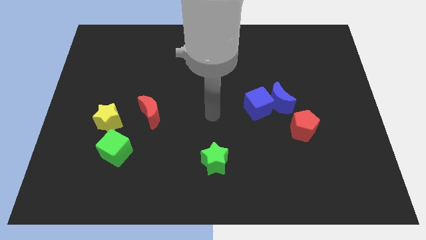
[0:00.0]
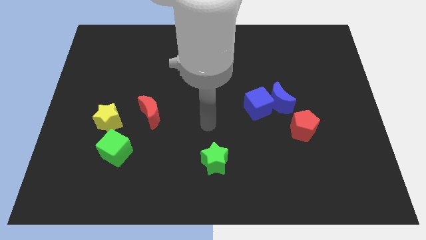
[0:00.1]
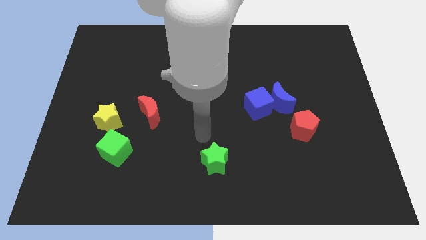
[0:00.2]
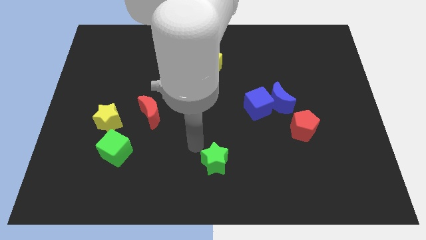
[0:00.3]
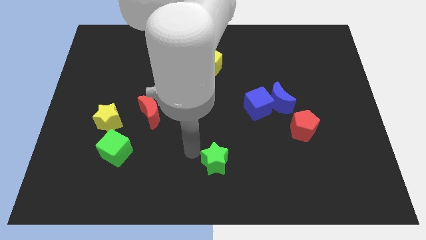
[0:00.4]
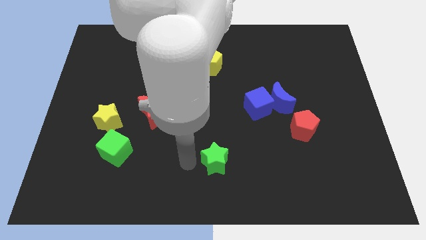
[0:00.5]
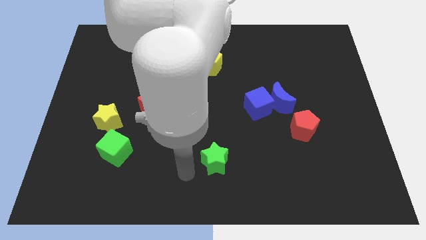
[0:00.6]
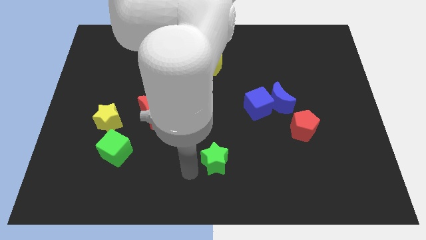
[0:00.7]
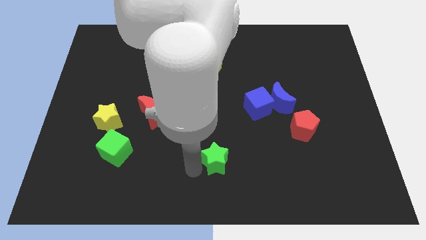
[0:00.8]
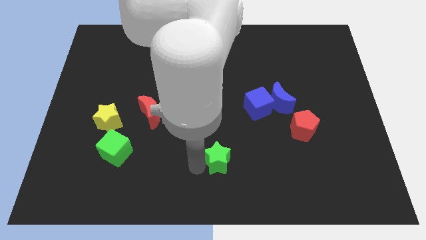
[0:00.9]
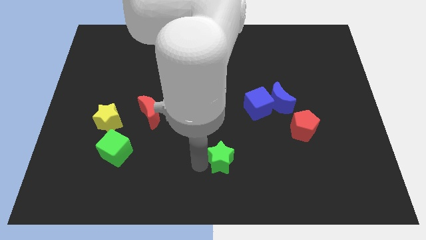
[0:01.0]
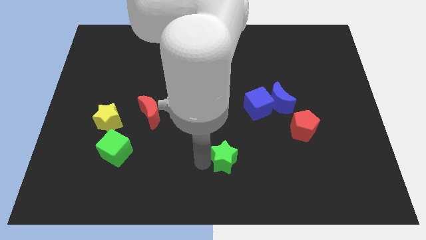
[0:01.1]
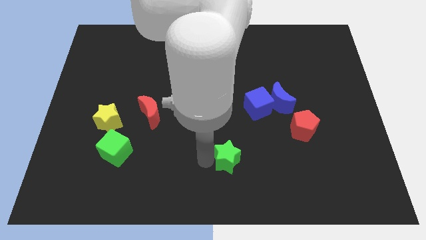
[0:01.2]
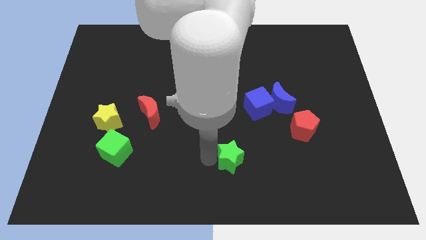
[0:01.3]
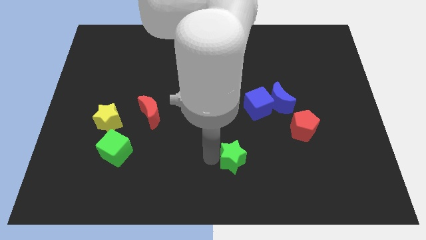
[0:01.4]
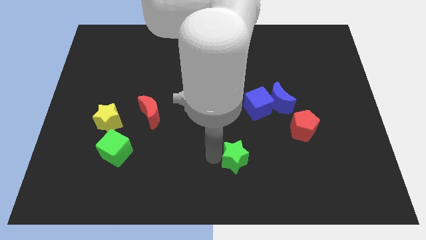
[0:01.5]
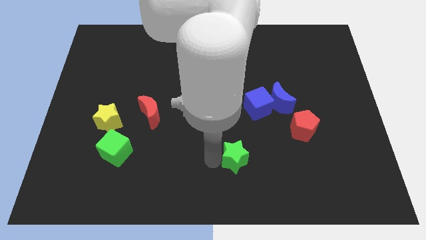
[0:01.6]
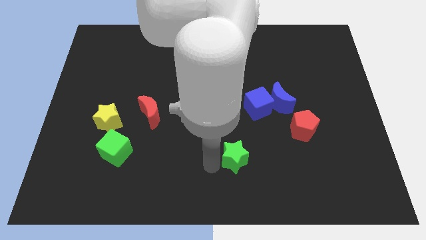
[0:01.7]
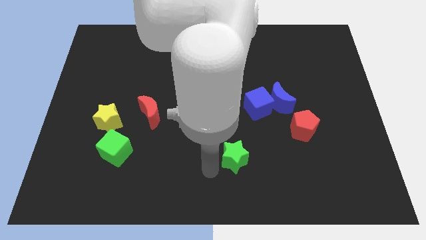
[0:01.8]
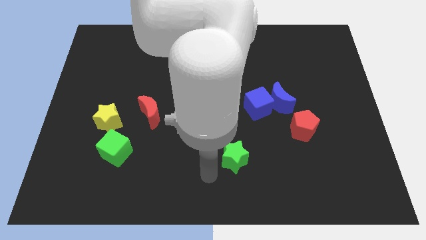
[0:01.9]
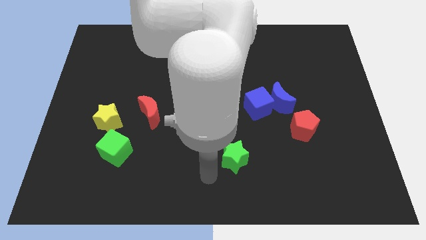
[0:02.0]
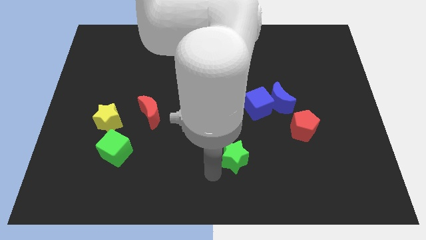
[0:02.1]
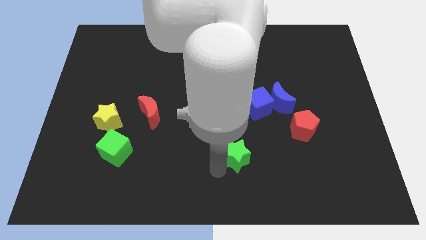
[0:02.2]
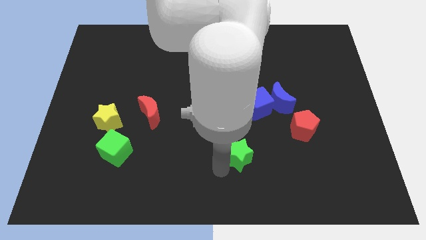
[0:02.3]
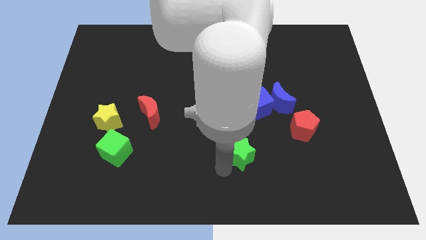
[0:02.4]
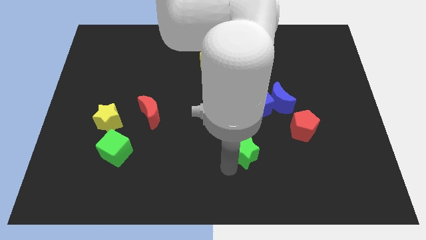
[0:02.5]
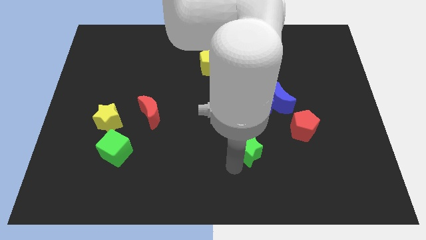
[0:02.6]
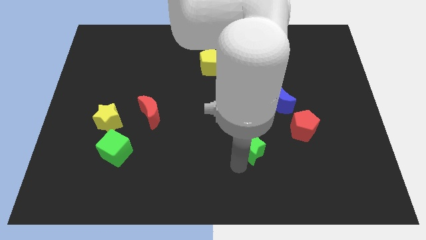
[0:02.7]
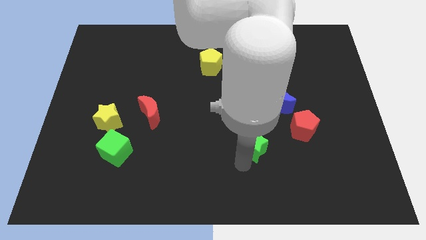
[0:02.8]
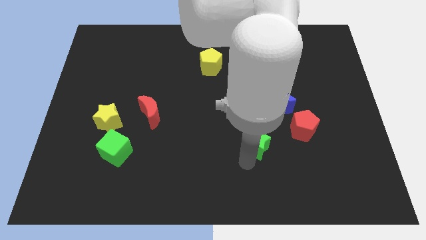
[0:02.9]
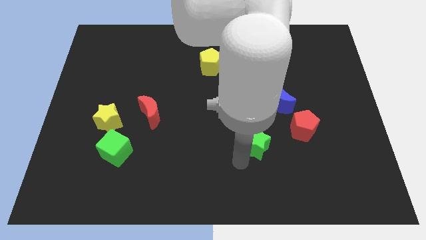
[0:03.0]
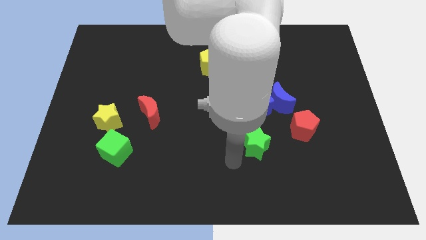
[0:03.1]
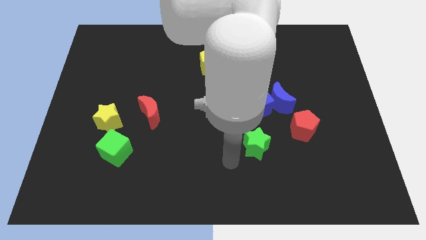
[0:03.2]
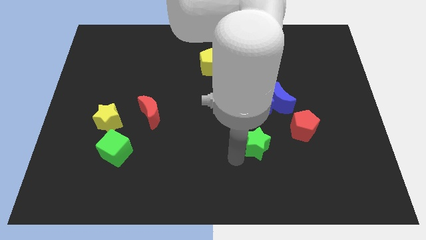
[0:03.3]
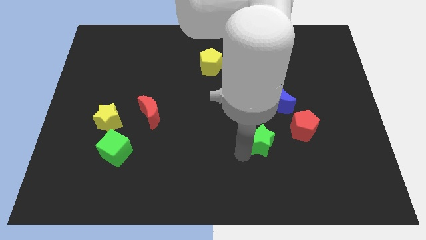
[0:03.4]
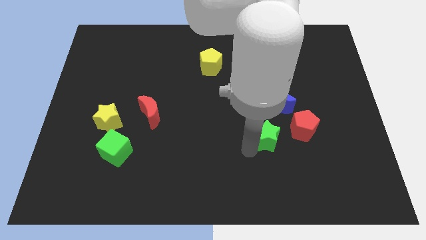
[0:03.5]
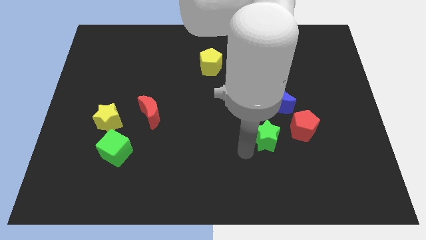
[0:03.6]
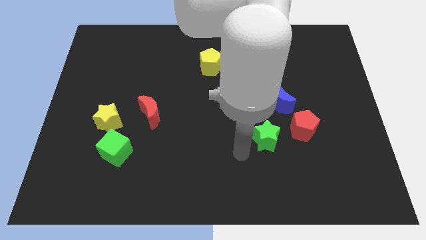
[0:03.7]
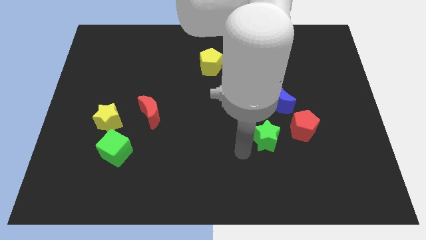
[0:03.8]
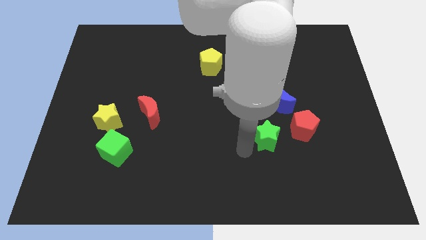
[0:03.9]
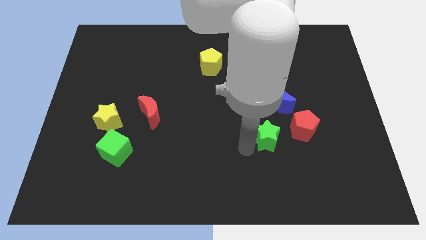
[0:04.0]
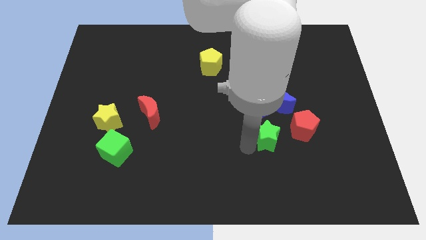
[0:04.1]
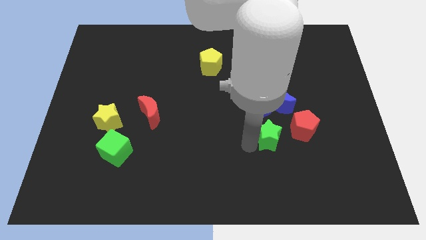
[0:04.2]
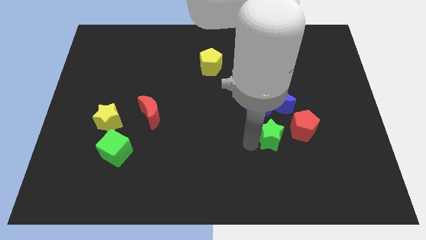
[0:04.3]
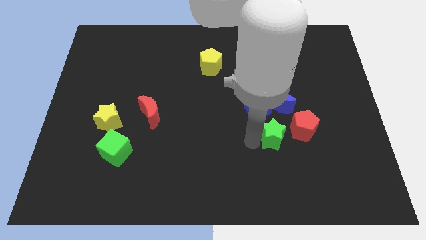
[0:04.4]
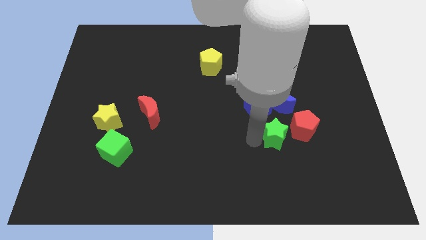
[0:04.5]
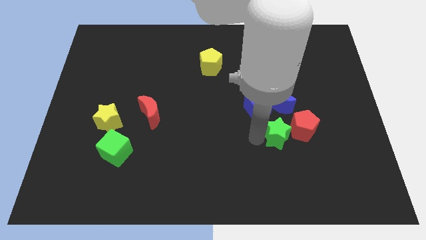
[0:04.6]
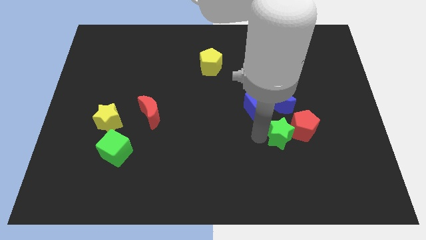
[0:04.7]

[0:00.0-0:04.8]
put the green star next to the red pentagon

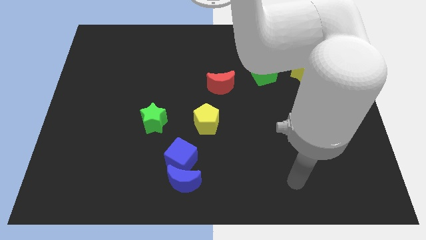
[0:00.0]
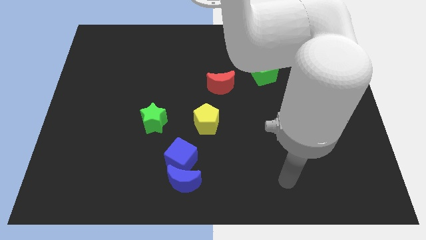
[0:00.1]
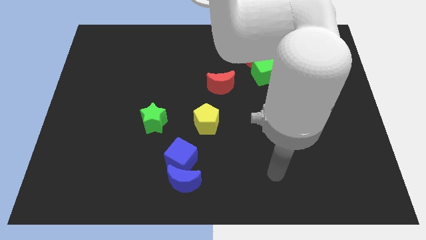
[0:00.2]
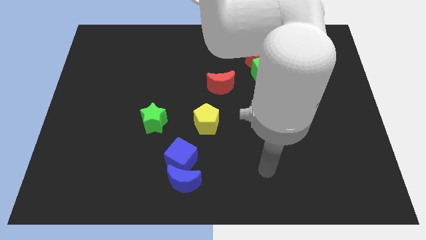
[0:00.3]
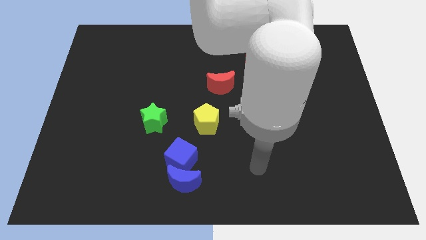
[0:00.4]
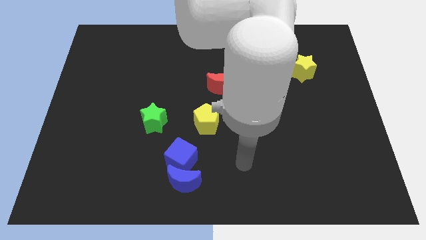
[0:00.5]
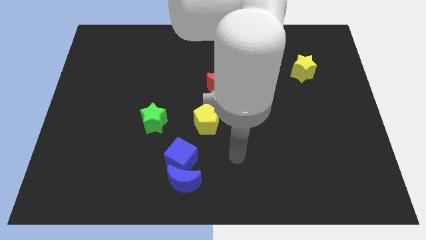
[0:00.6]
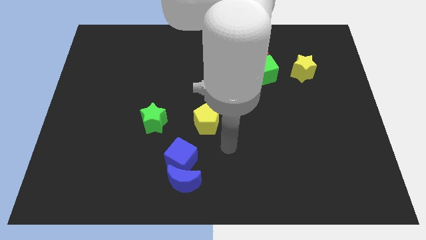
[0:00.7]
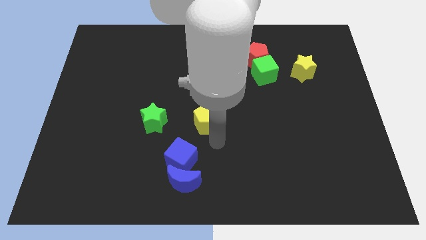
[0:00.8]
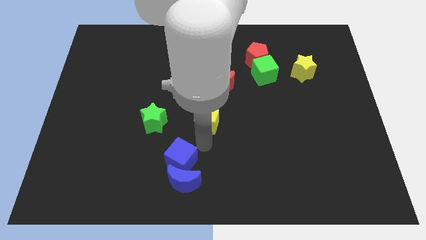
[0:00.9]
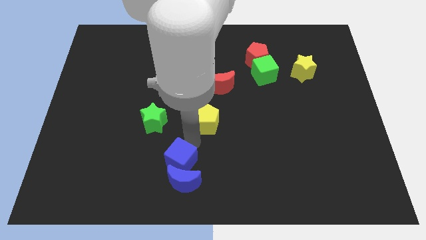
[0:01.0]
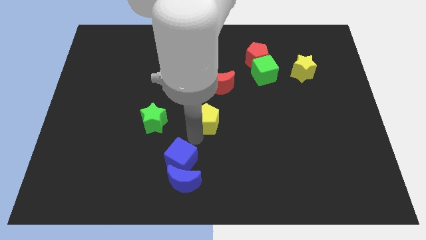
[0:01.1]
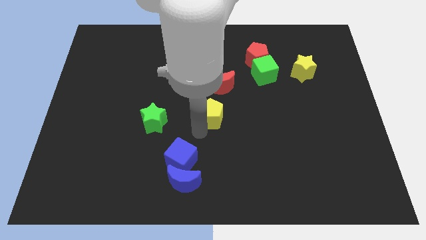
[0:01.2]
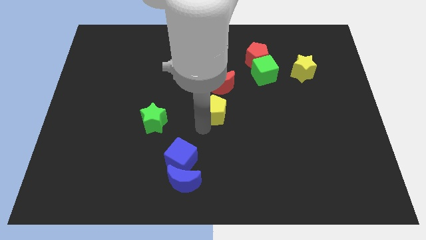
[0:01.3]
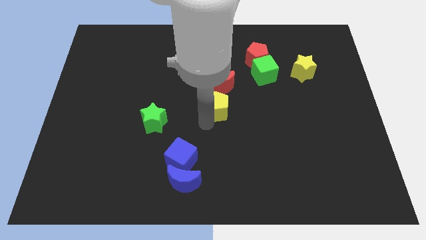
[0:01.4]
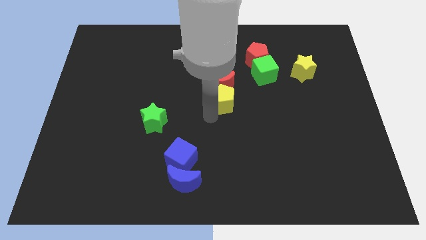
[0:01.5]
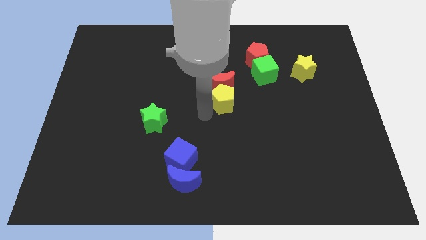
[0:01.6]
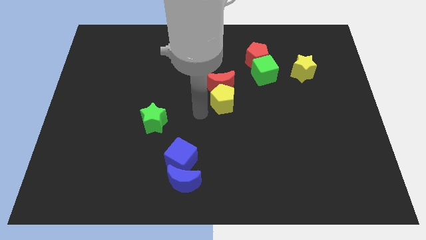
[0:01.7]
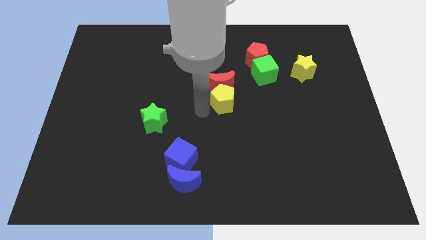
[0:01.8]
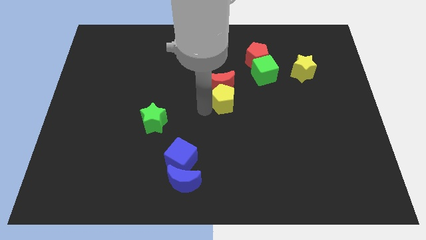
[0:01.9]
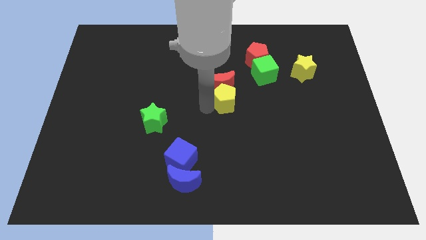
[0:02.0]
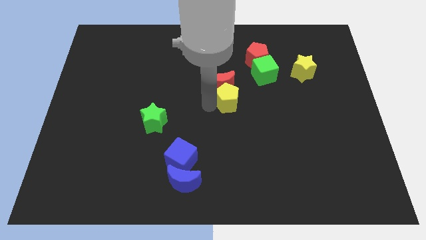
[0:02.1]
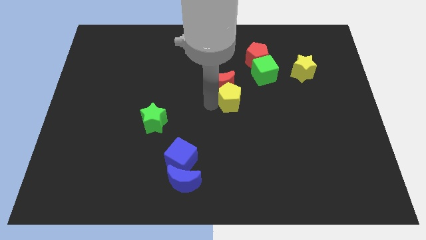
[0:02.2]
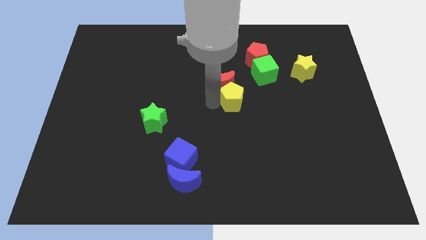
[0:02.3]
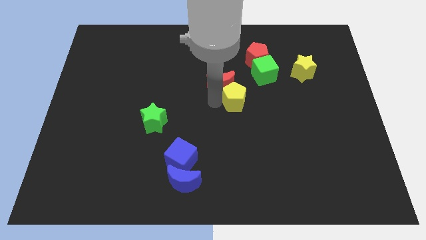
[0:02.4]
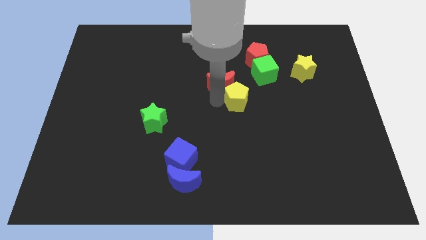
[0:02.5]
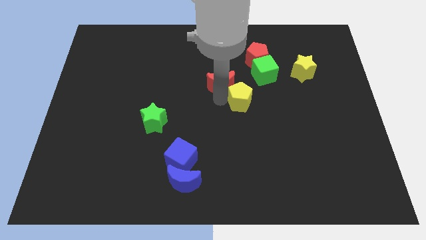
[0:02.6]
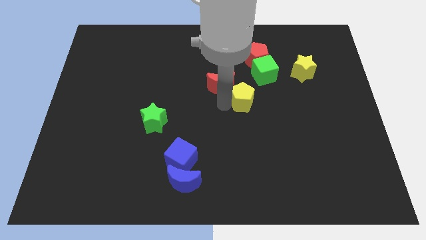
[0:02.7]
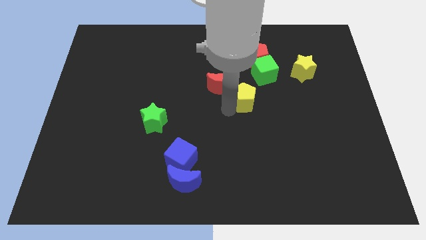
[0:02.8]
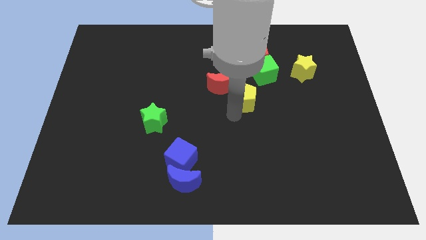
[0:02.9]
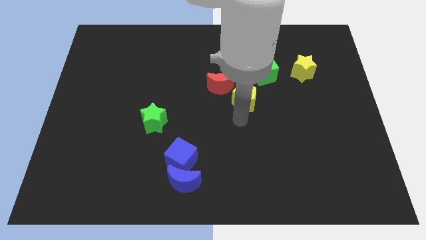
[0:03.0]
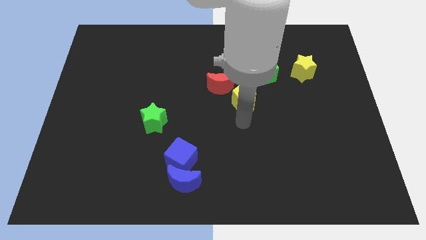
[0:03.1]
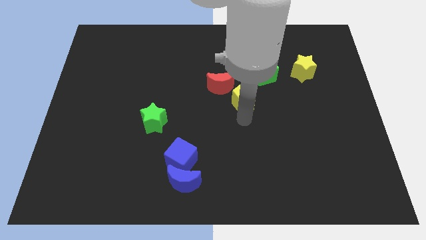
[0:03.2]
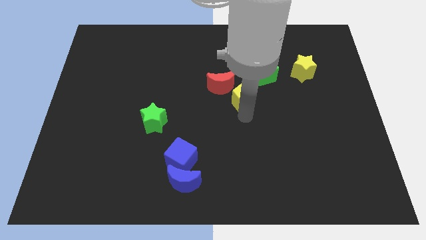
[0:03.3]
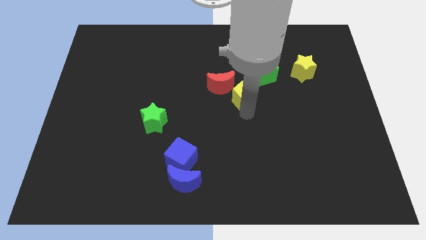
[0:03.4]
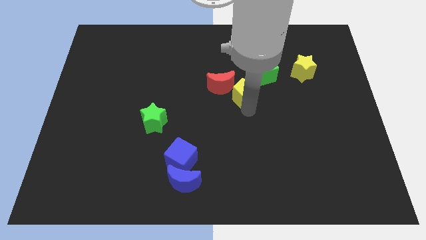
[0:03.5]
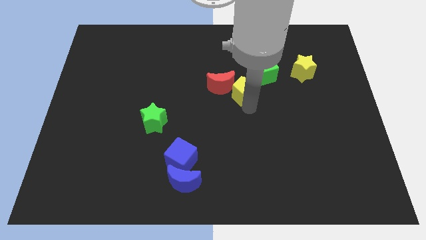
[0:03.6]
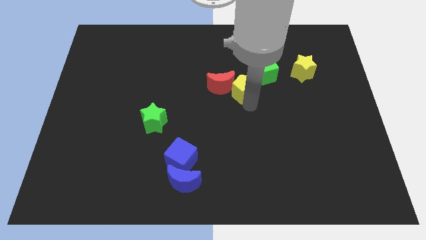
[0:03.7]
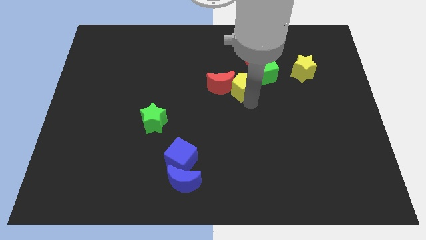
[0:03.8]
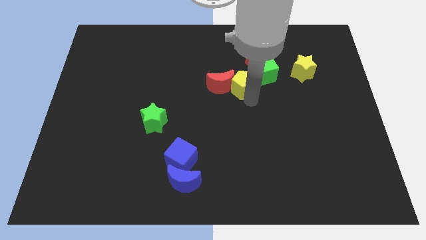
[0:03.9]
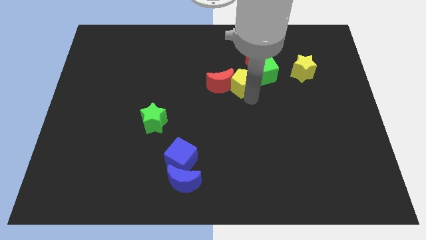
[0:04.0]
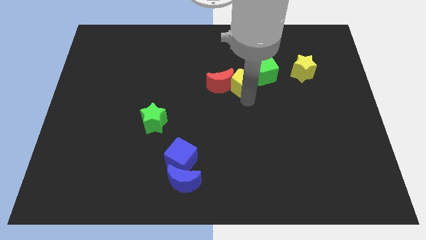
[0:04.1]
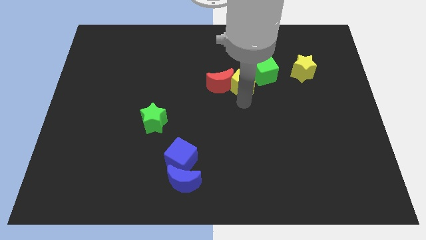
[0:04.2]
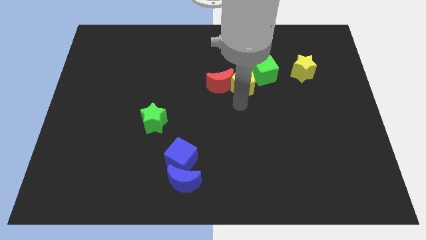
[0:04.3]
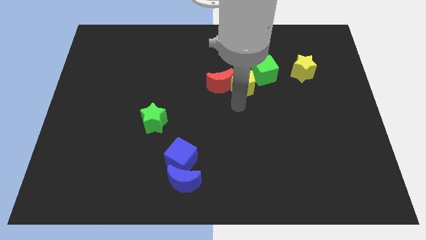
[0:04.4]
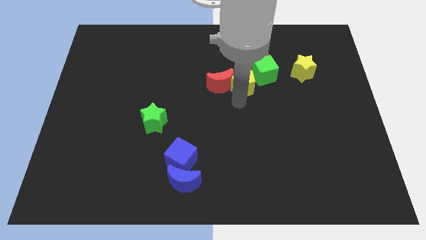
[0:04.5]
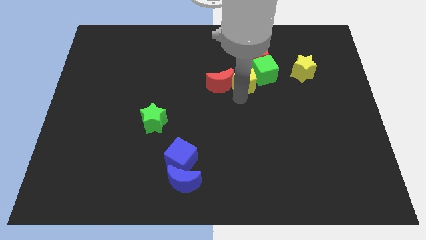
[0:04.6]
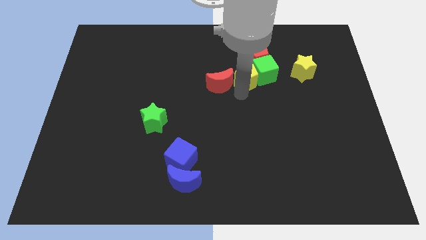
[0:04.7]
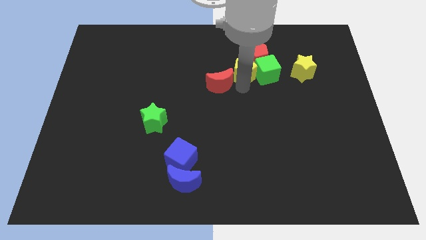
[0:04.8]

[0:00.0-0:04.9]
push the yellow pentagon next to the red pentagon
